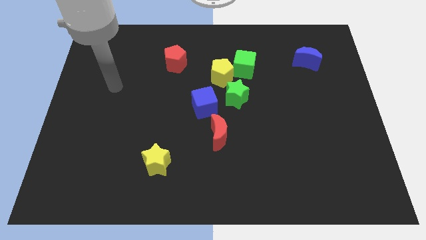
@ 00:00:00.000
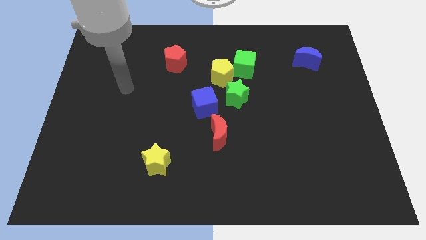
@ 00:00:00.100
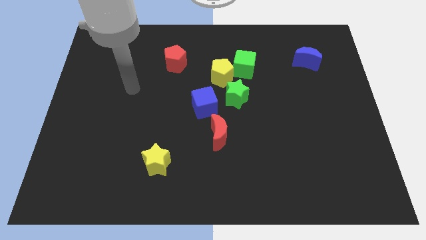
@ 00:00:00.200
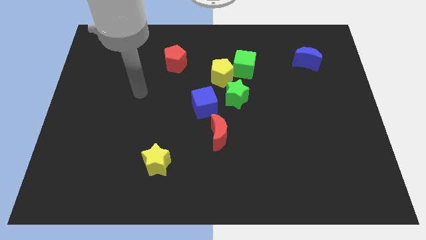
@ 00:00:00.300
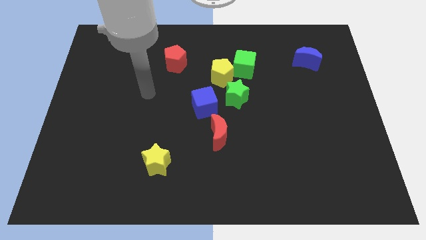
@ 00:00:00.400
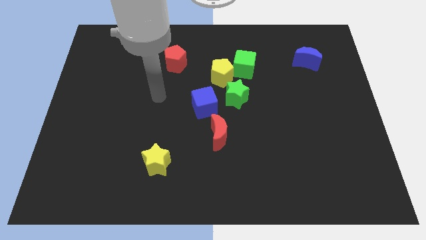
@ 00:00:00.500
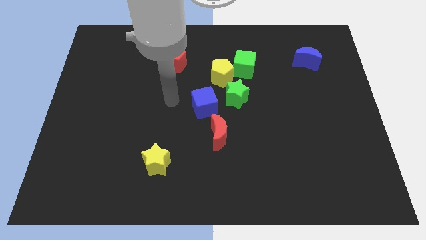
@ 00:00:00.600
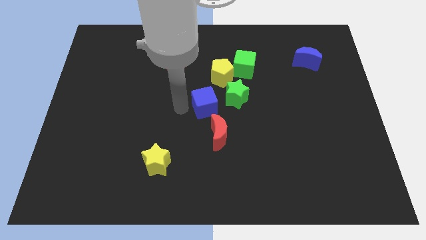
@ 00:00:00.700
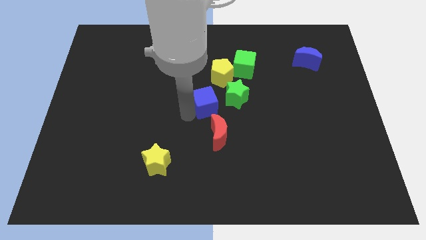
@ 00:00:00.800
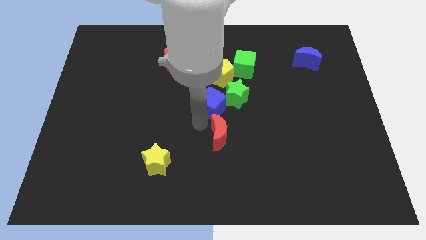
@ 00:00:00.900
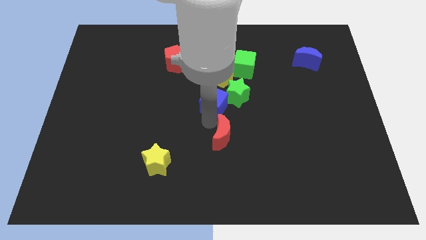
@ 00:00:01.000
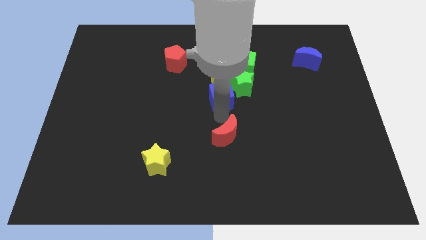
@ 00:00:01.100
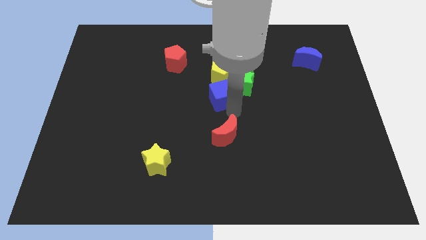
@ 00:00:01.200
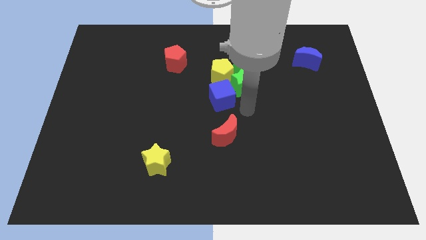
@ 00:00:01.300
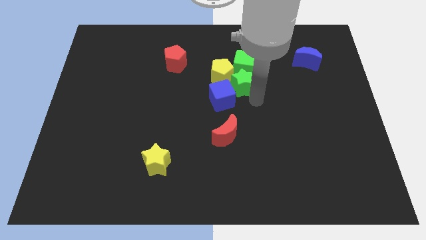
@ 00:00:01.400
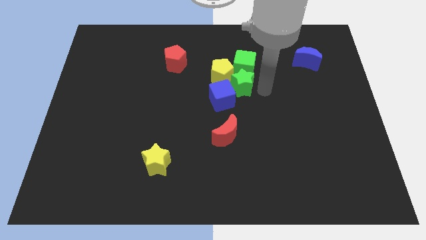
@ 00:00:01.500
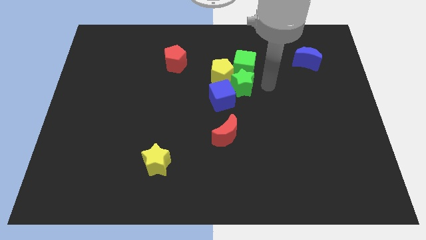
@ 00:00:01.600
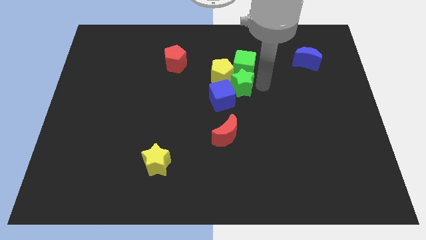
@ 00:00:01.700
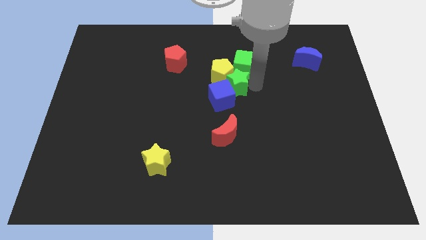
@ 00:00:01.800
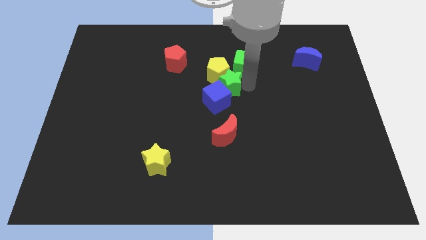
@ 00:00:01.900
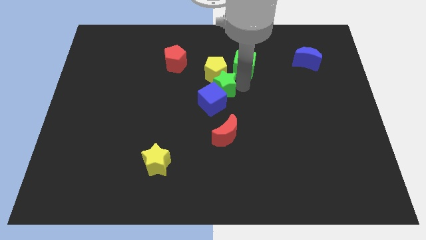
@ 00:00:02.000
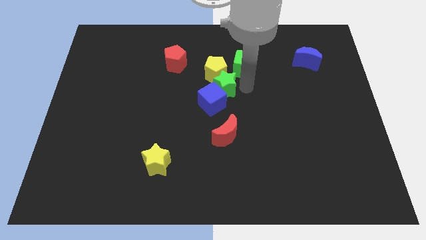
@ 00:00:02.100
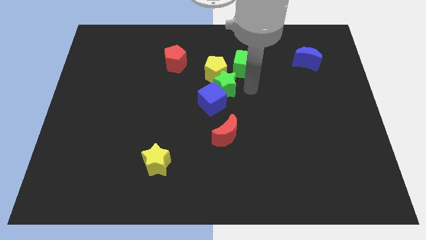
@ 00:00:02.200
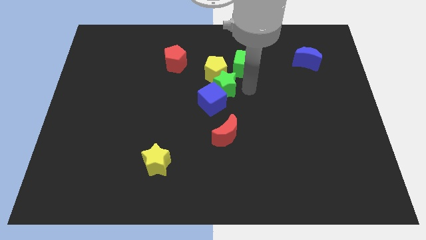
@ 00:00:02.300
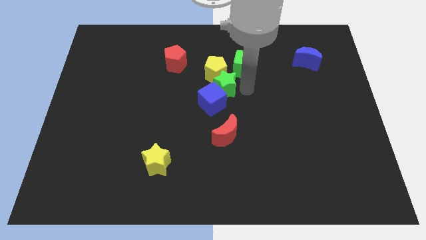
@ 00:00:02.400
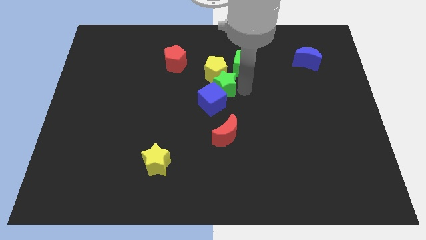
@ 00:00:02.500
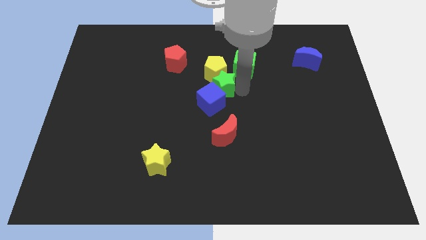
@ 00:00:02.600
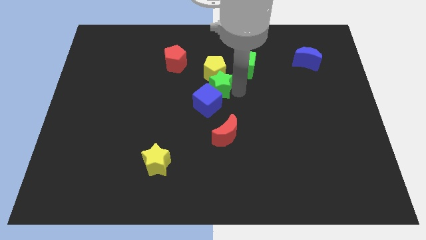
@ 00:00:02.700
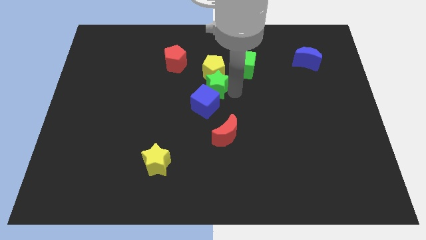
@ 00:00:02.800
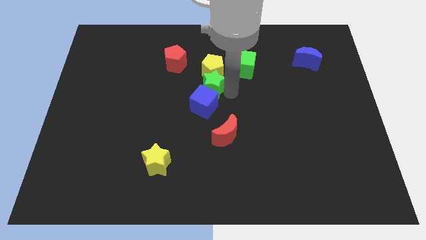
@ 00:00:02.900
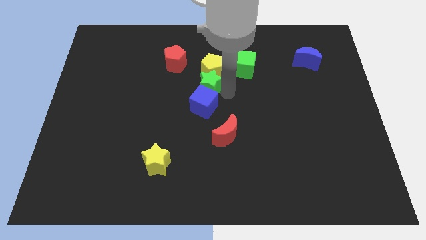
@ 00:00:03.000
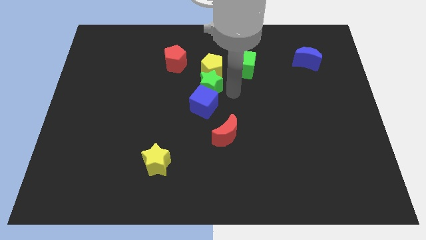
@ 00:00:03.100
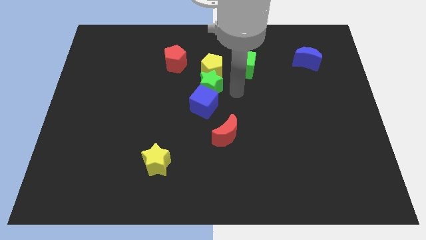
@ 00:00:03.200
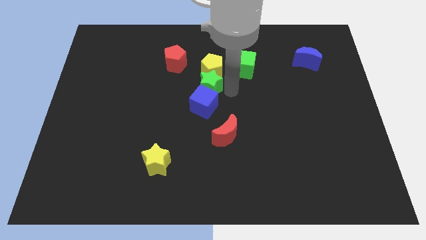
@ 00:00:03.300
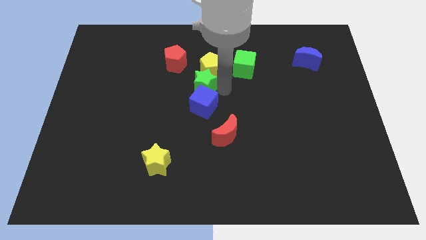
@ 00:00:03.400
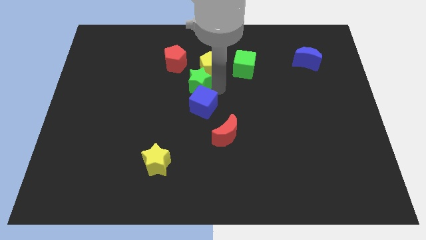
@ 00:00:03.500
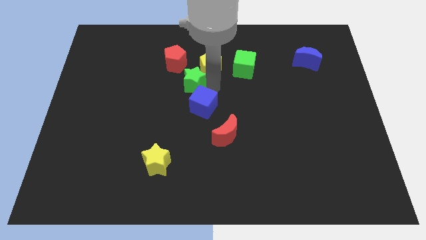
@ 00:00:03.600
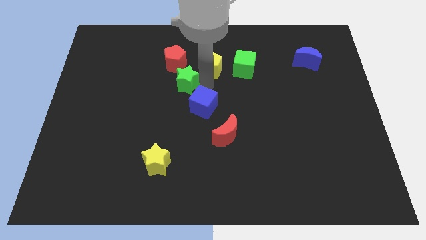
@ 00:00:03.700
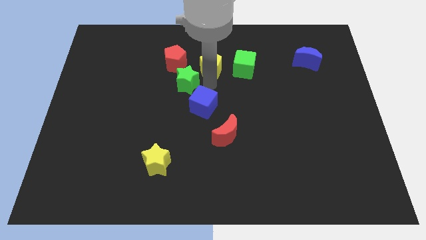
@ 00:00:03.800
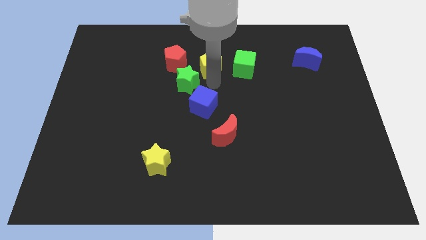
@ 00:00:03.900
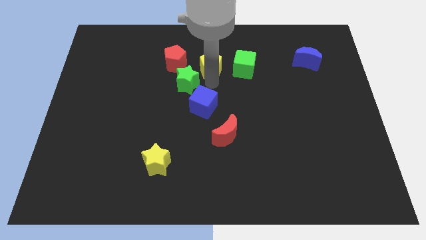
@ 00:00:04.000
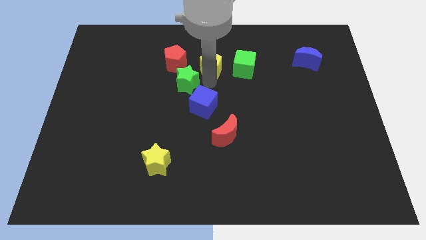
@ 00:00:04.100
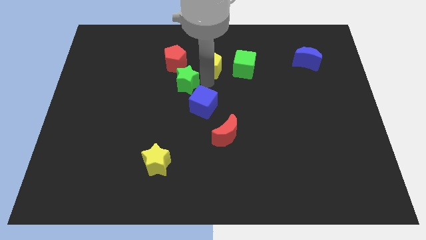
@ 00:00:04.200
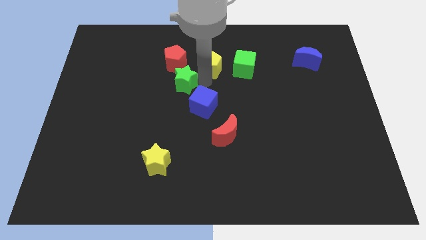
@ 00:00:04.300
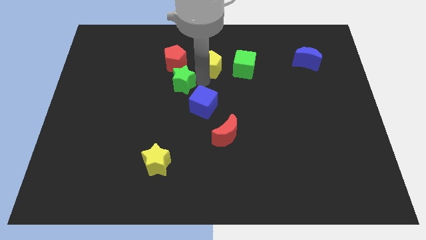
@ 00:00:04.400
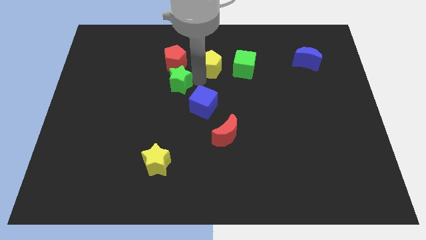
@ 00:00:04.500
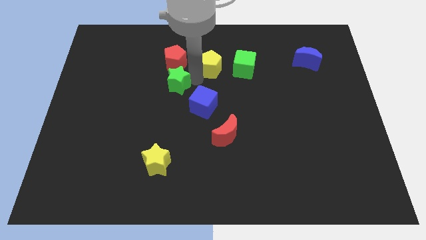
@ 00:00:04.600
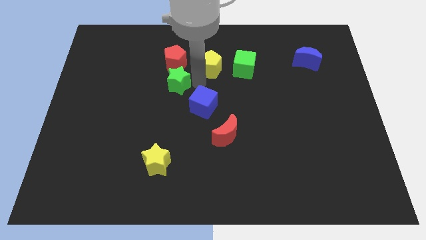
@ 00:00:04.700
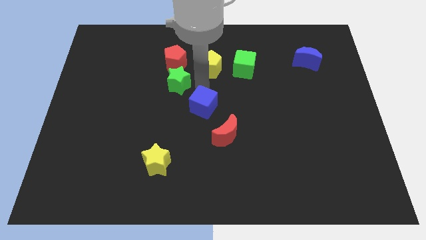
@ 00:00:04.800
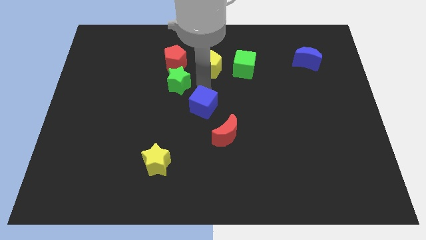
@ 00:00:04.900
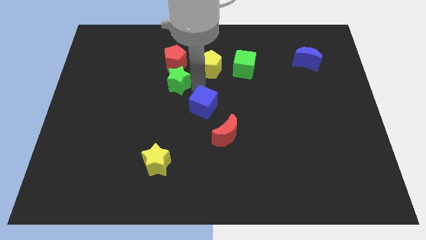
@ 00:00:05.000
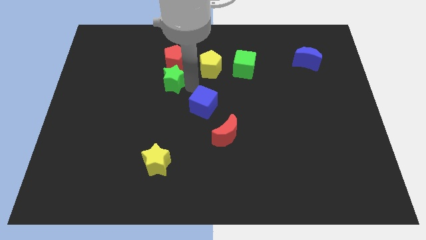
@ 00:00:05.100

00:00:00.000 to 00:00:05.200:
put the green star to the bottom left side of the red pentagon

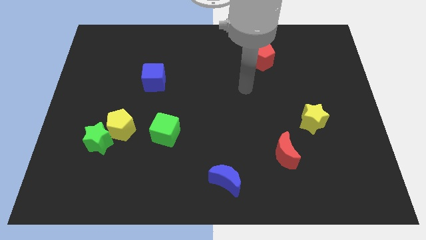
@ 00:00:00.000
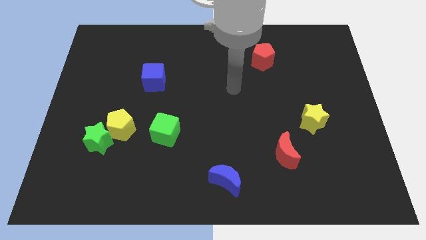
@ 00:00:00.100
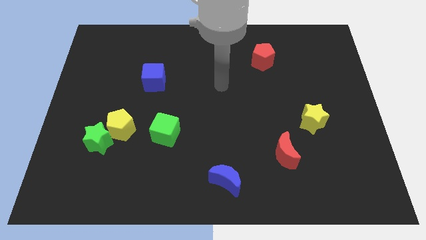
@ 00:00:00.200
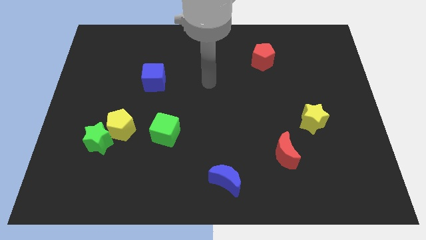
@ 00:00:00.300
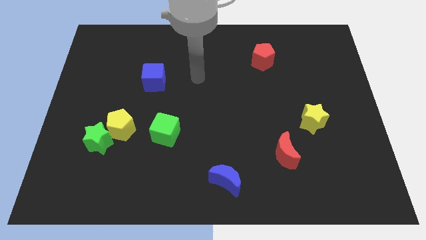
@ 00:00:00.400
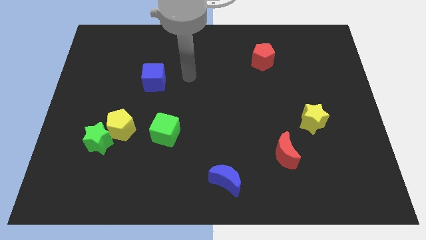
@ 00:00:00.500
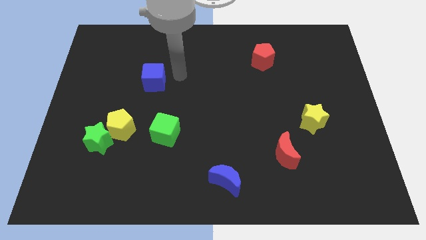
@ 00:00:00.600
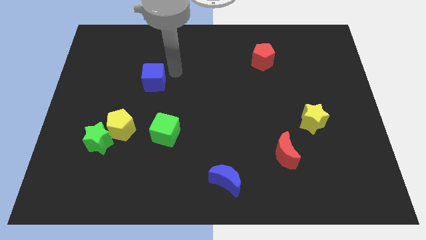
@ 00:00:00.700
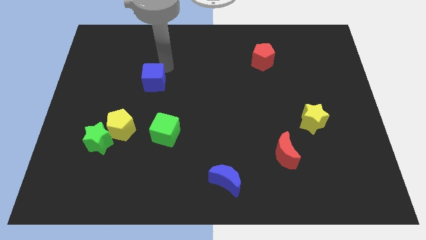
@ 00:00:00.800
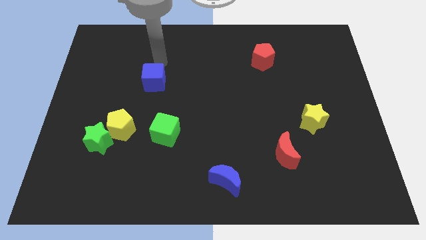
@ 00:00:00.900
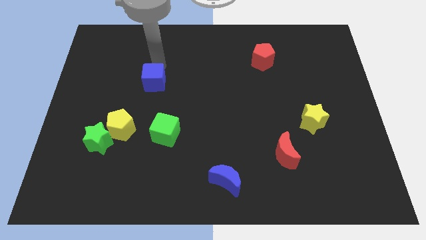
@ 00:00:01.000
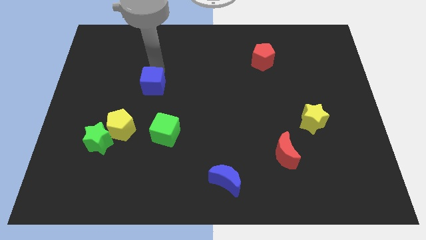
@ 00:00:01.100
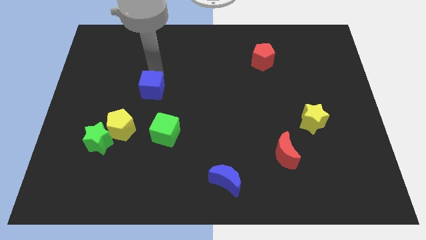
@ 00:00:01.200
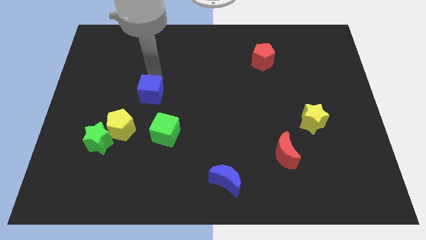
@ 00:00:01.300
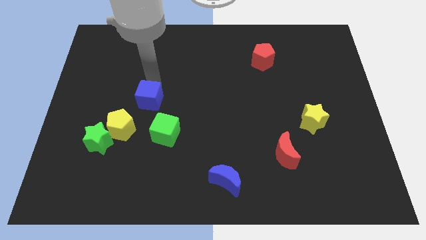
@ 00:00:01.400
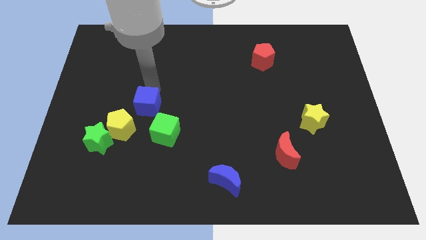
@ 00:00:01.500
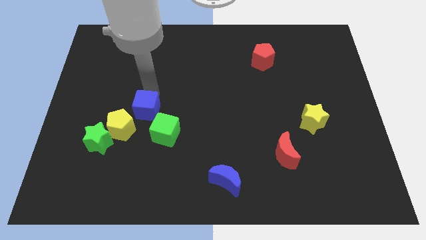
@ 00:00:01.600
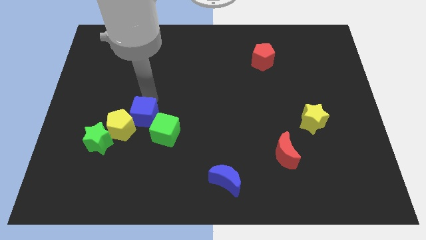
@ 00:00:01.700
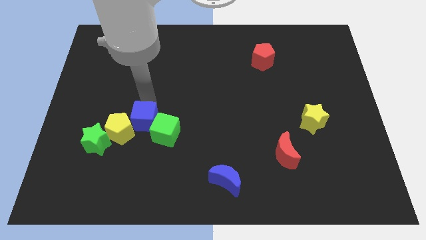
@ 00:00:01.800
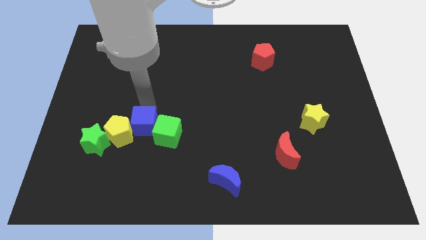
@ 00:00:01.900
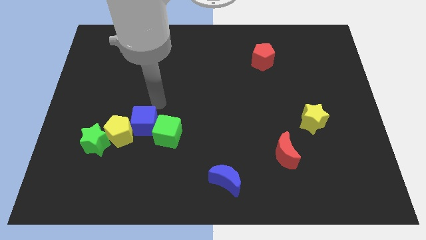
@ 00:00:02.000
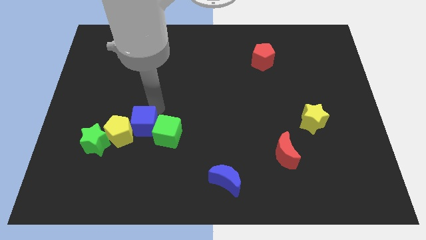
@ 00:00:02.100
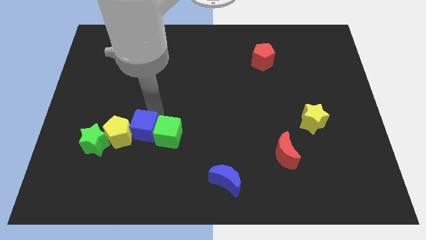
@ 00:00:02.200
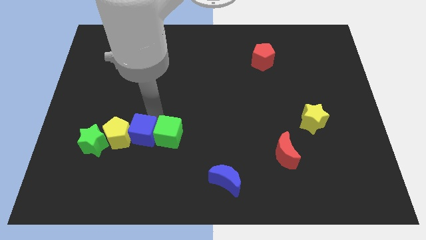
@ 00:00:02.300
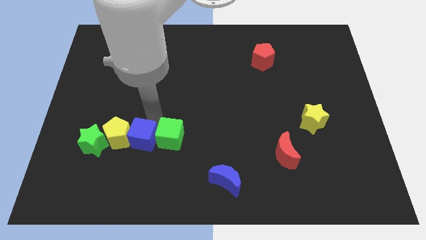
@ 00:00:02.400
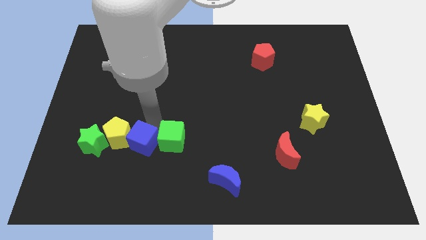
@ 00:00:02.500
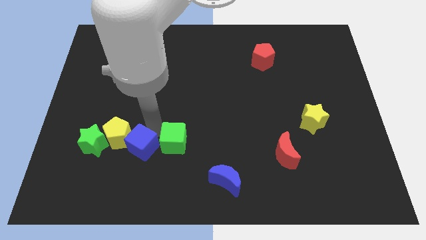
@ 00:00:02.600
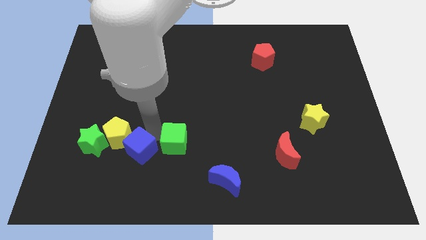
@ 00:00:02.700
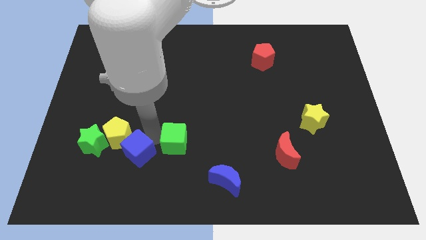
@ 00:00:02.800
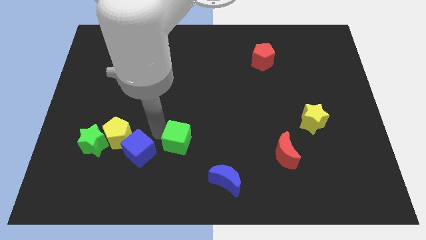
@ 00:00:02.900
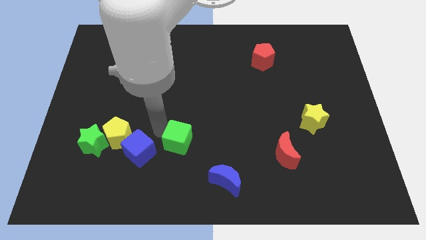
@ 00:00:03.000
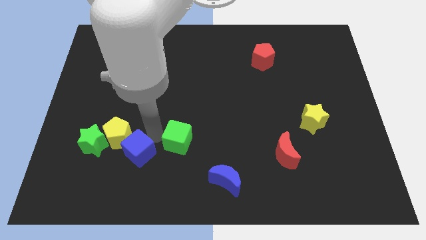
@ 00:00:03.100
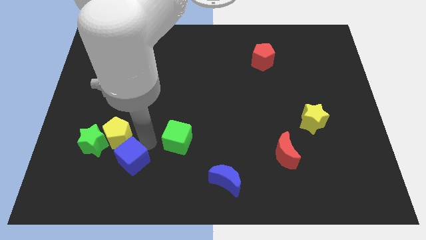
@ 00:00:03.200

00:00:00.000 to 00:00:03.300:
slide the blue cube to the bottom of the yellow pentagon
